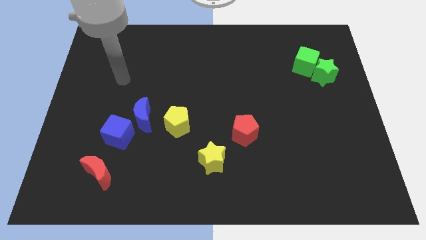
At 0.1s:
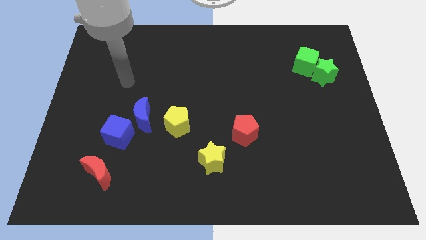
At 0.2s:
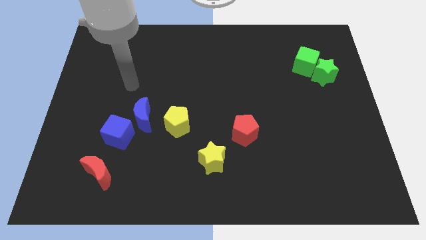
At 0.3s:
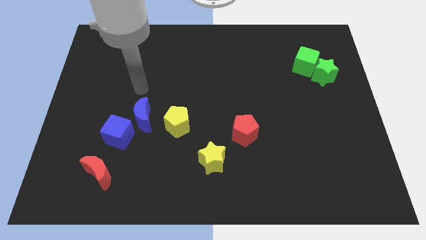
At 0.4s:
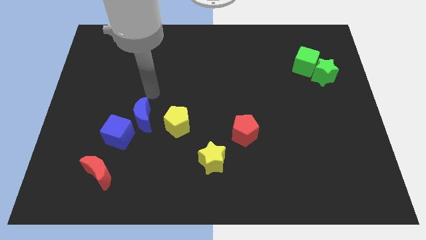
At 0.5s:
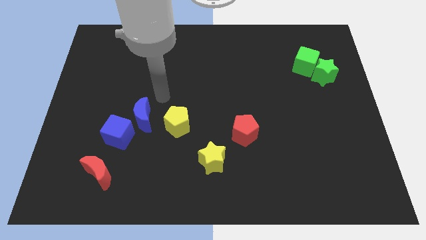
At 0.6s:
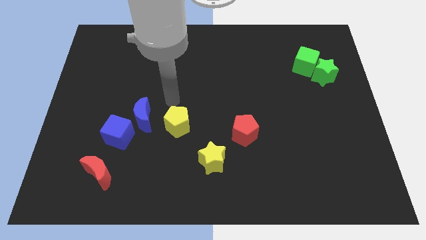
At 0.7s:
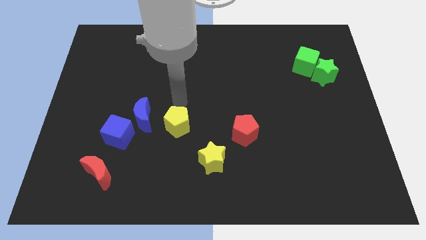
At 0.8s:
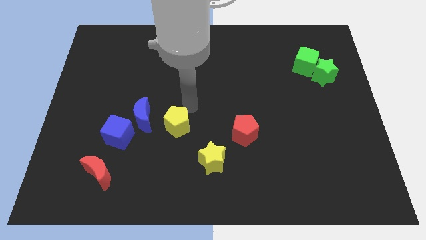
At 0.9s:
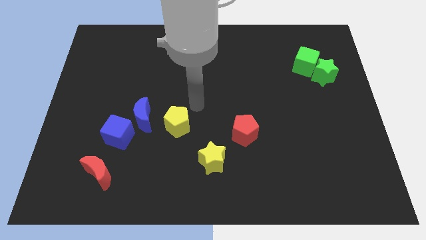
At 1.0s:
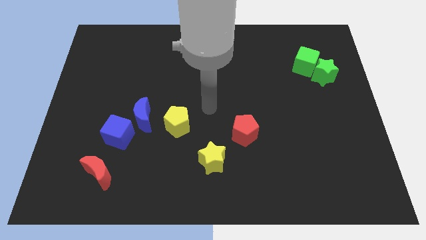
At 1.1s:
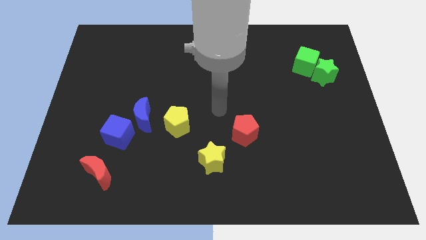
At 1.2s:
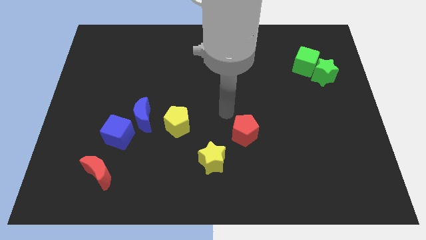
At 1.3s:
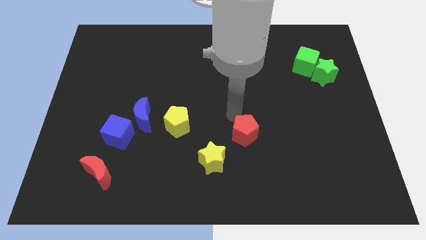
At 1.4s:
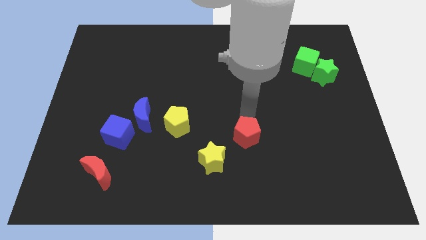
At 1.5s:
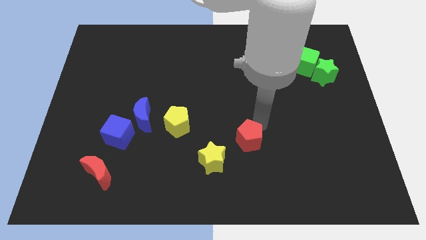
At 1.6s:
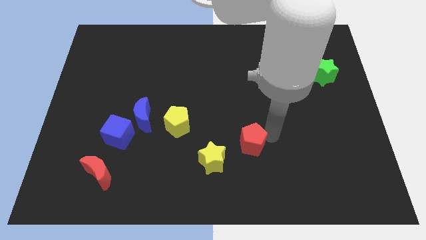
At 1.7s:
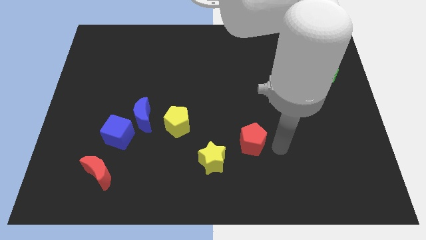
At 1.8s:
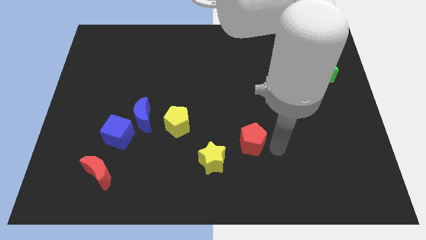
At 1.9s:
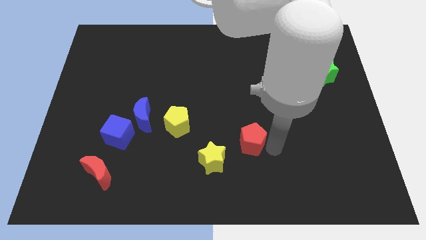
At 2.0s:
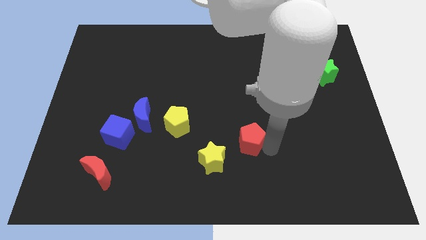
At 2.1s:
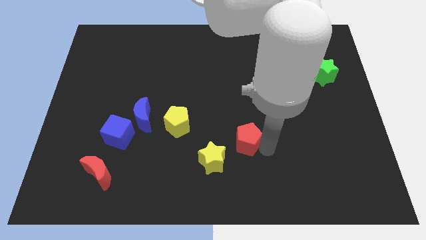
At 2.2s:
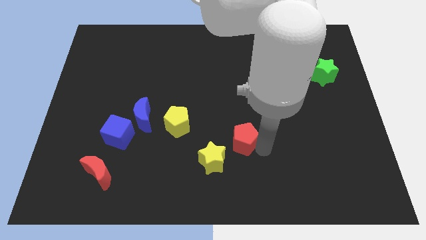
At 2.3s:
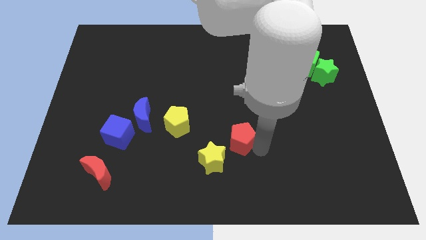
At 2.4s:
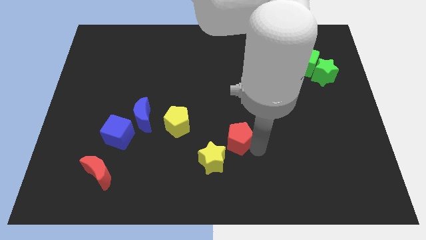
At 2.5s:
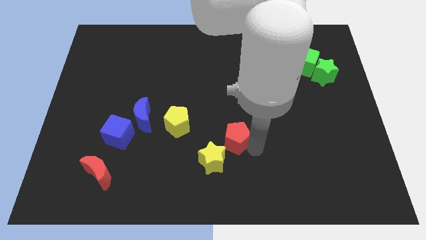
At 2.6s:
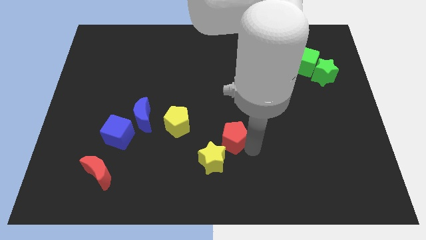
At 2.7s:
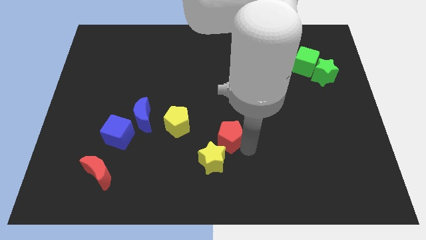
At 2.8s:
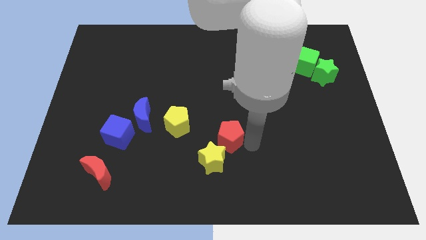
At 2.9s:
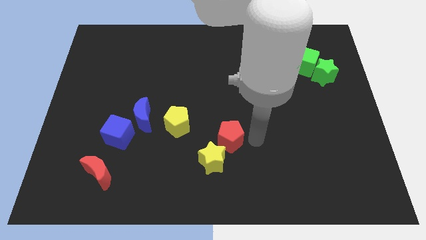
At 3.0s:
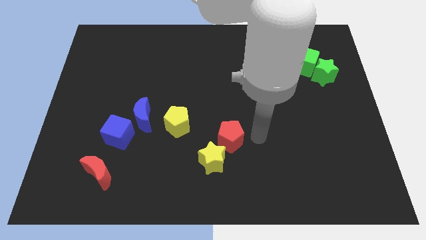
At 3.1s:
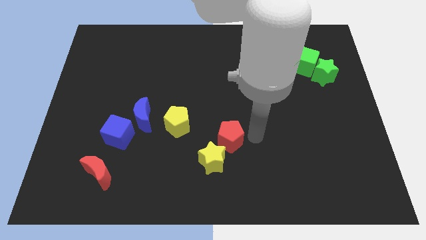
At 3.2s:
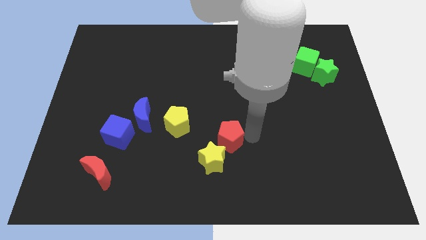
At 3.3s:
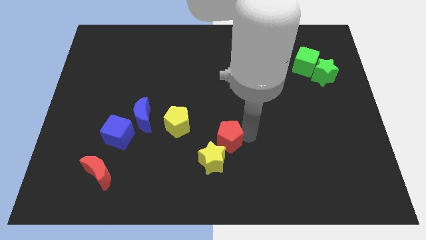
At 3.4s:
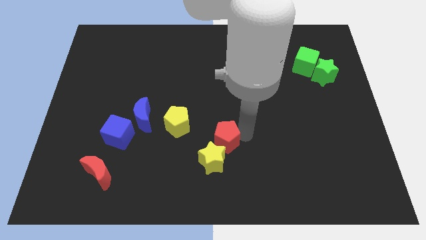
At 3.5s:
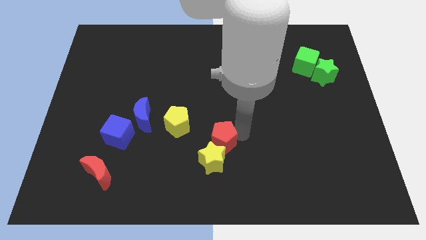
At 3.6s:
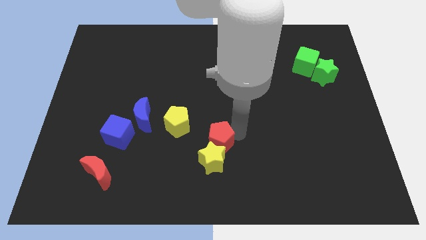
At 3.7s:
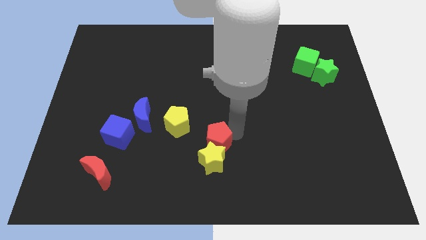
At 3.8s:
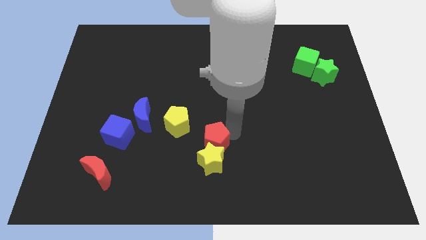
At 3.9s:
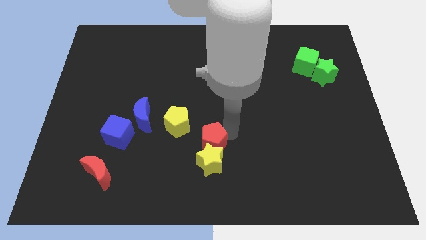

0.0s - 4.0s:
move the red pentagon a bit left

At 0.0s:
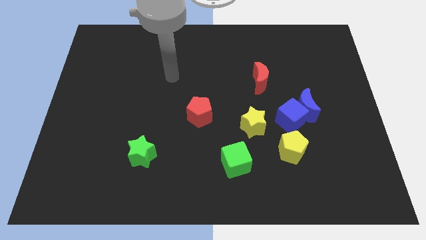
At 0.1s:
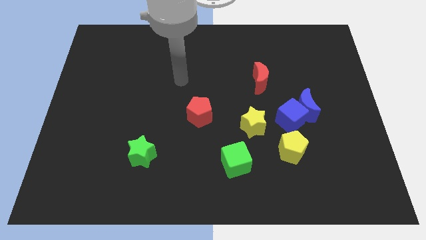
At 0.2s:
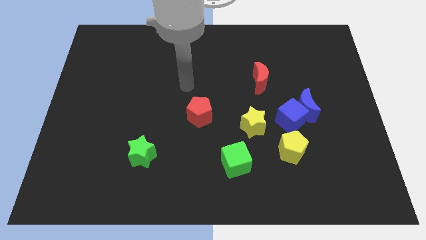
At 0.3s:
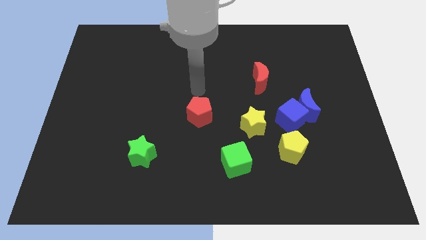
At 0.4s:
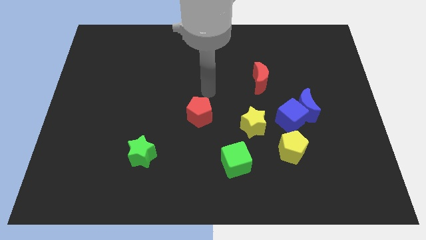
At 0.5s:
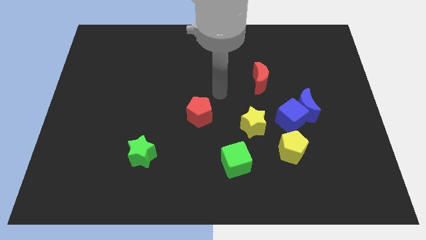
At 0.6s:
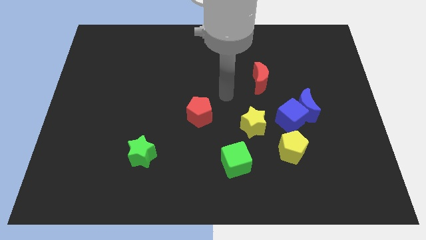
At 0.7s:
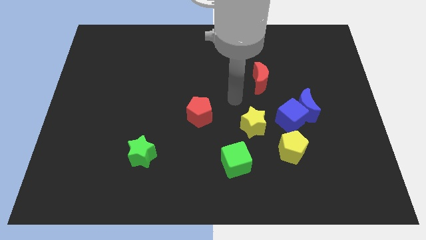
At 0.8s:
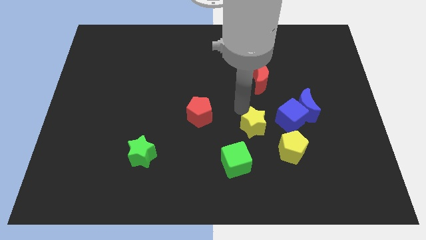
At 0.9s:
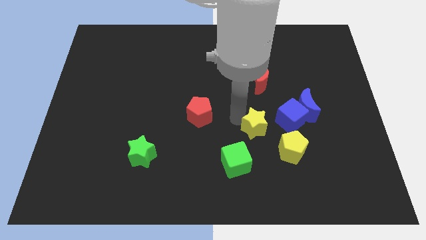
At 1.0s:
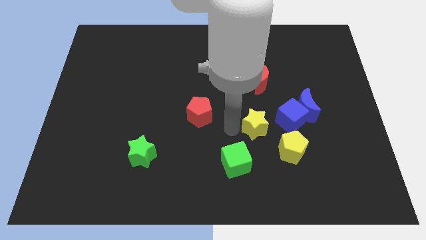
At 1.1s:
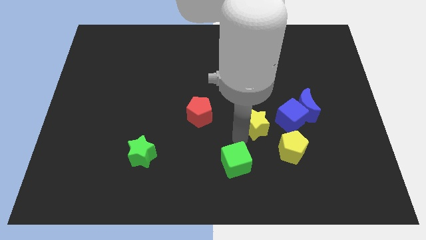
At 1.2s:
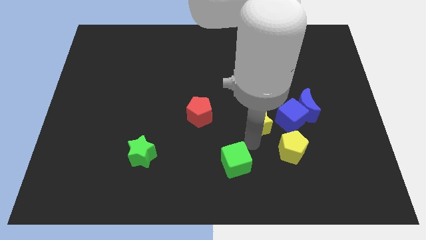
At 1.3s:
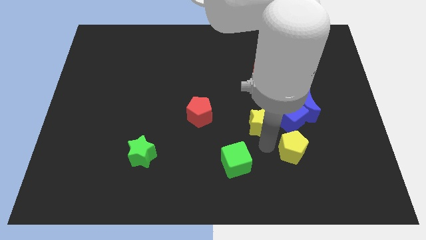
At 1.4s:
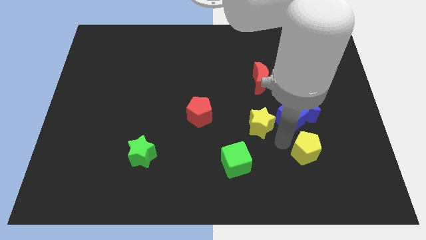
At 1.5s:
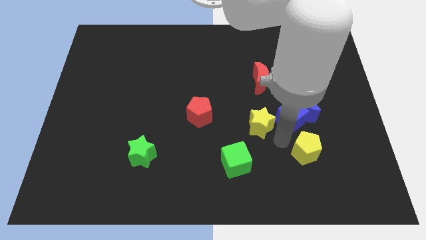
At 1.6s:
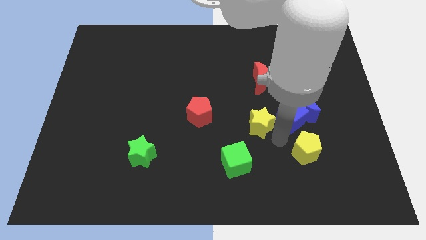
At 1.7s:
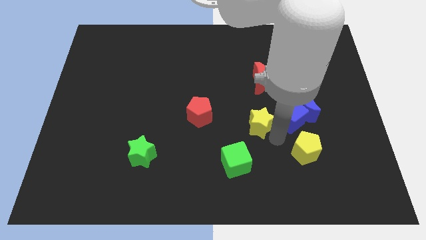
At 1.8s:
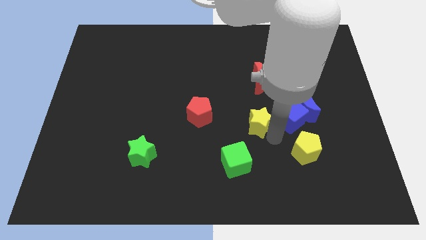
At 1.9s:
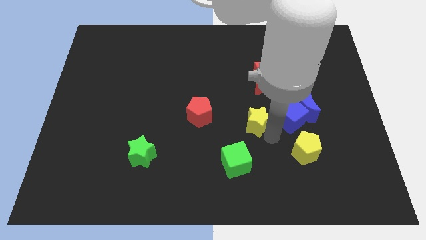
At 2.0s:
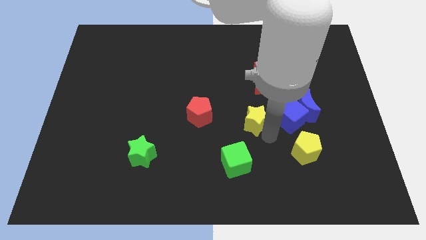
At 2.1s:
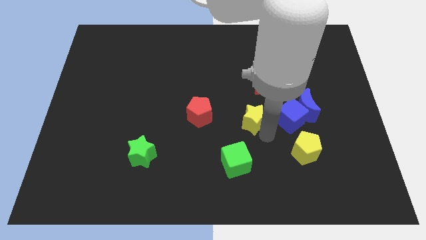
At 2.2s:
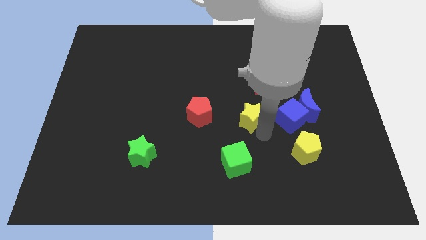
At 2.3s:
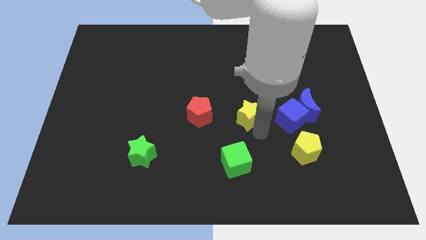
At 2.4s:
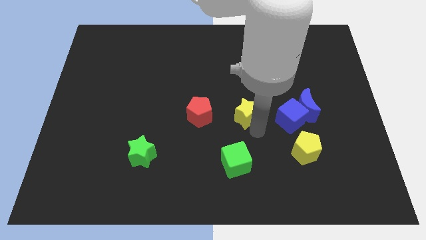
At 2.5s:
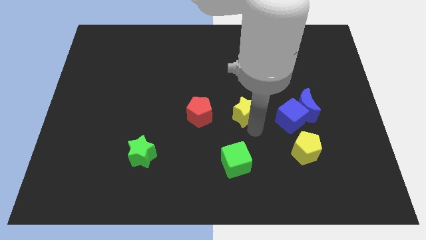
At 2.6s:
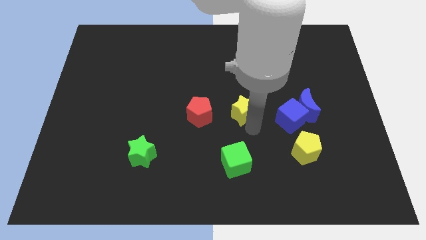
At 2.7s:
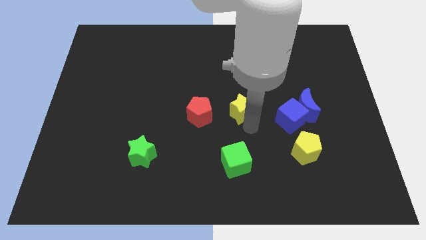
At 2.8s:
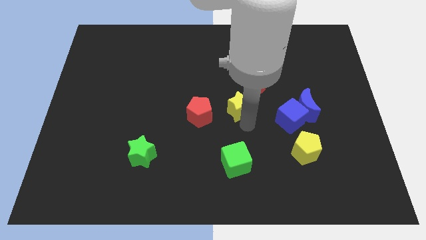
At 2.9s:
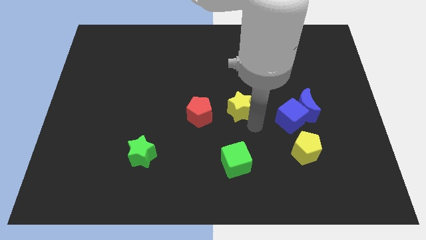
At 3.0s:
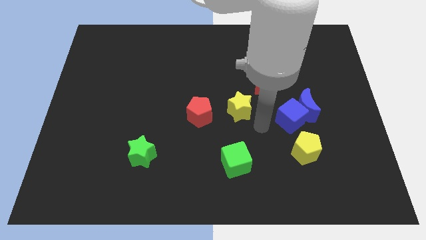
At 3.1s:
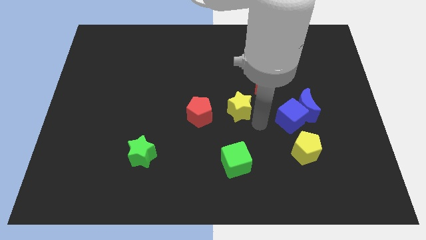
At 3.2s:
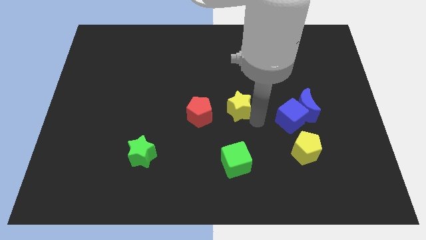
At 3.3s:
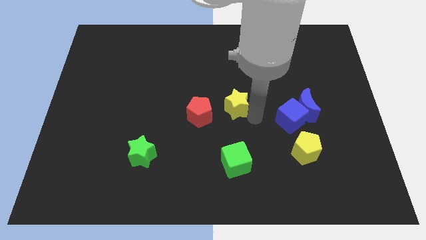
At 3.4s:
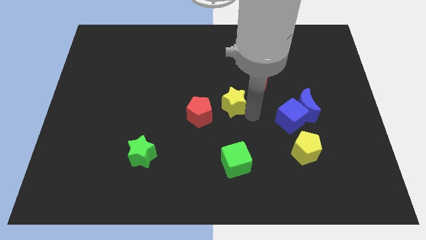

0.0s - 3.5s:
slide the yellow star up and to the left somewhat

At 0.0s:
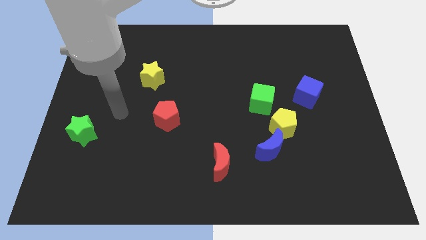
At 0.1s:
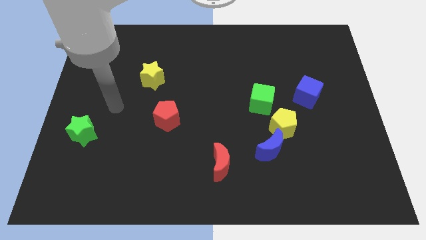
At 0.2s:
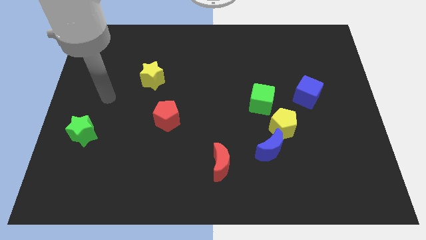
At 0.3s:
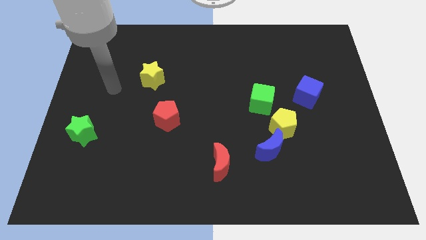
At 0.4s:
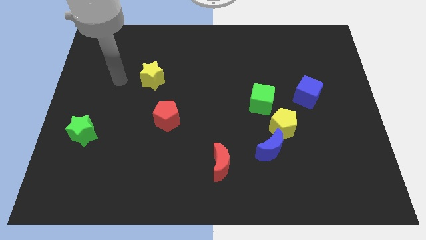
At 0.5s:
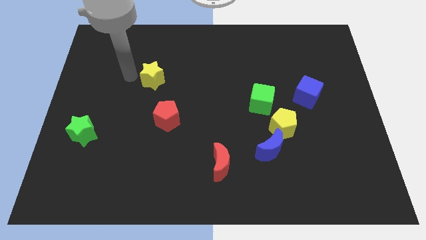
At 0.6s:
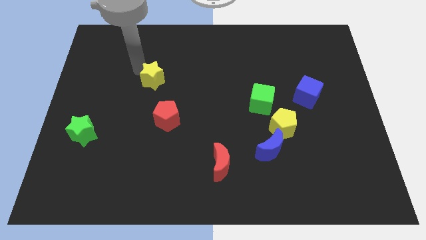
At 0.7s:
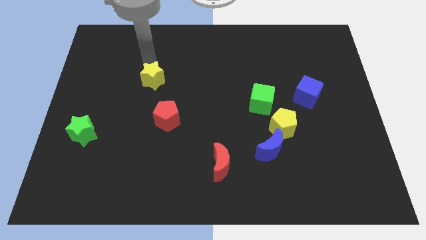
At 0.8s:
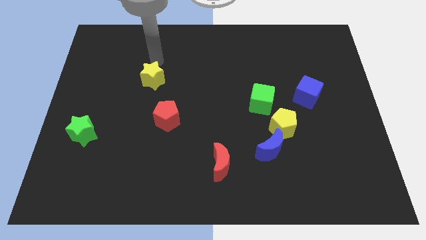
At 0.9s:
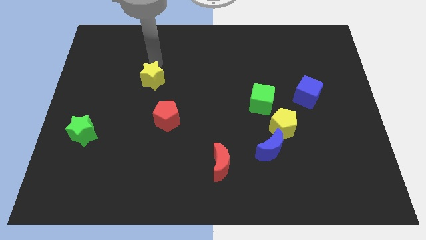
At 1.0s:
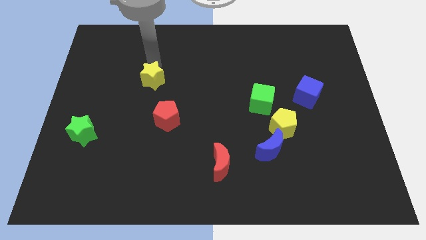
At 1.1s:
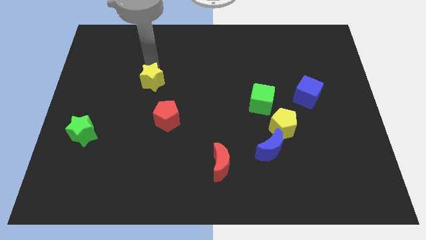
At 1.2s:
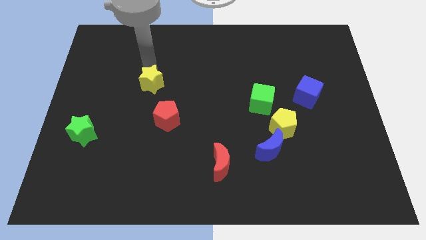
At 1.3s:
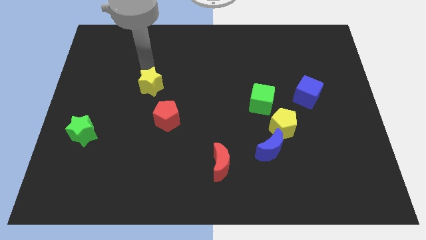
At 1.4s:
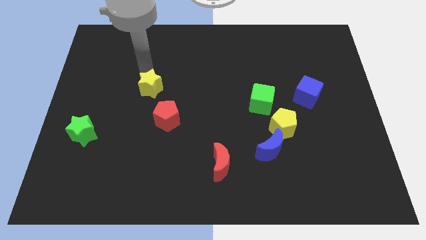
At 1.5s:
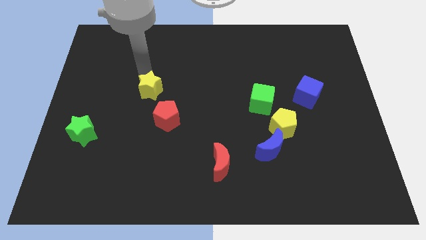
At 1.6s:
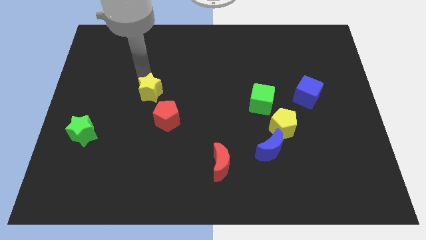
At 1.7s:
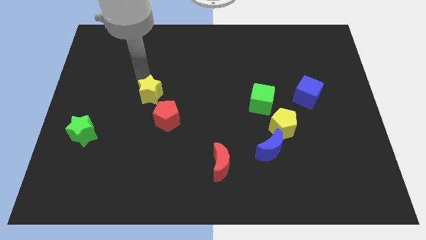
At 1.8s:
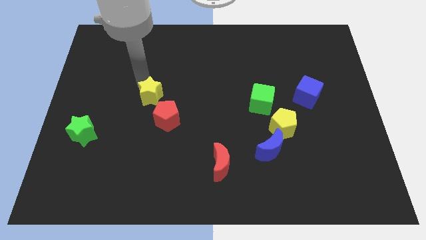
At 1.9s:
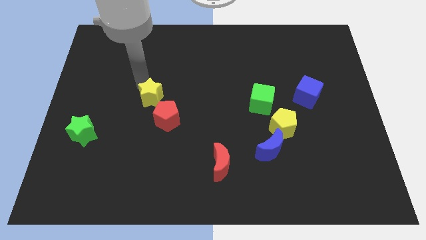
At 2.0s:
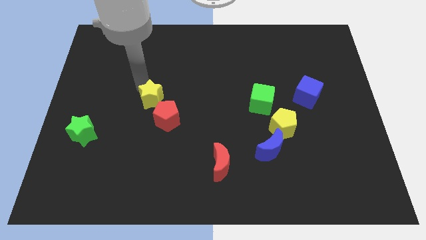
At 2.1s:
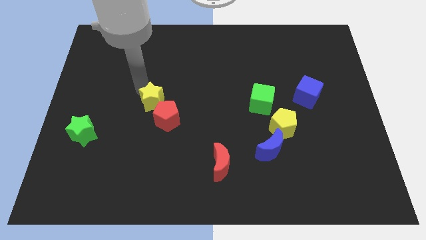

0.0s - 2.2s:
move the yellow star a bit downwards
